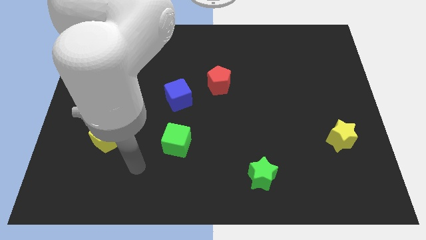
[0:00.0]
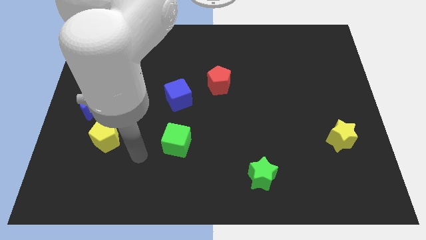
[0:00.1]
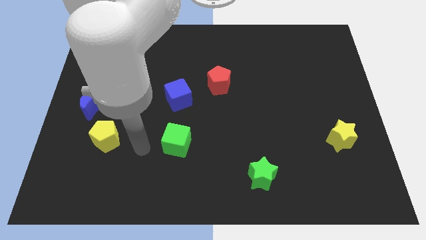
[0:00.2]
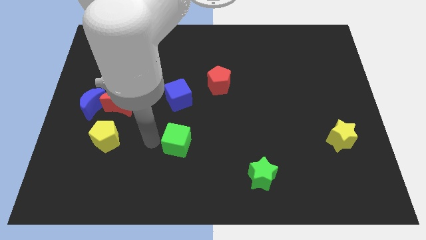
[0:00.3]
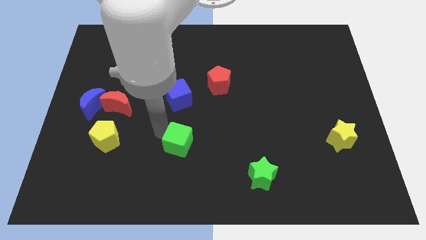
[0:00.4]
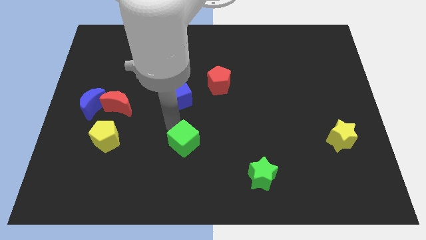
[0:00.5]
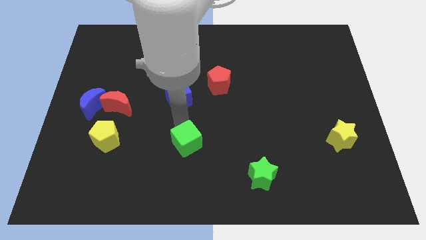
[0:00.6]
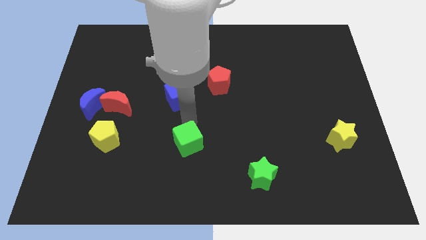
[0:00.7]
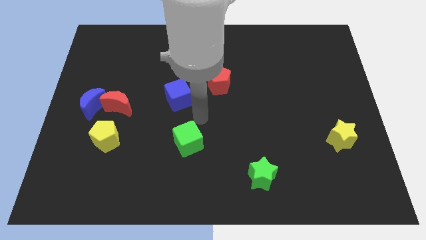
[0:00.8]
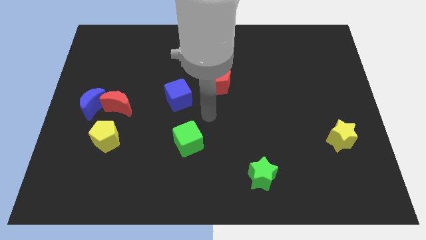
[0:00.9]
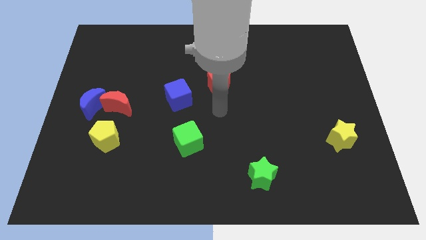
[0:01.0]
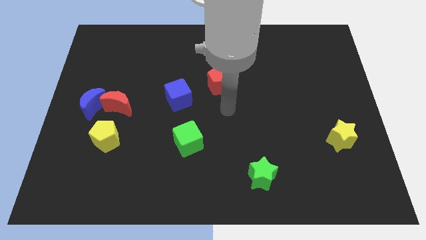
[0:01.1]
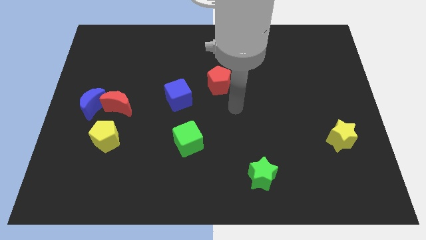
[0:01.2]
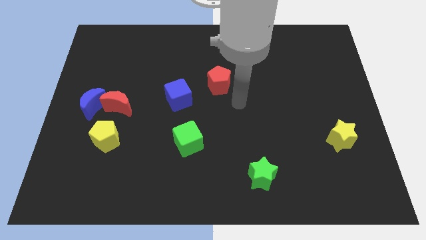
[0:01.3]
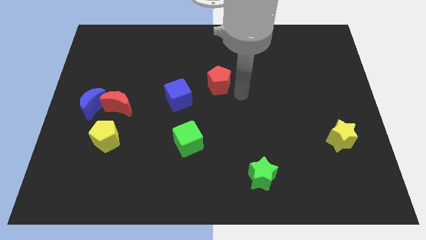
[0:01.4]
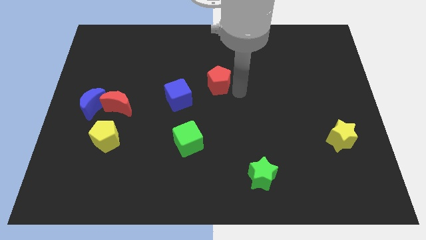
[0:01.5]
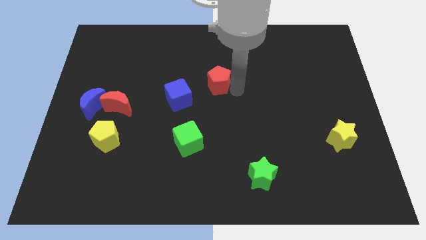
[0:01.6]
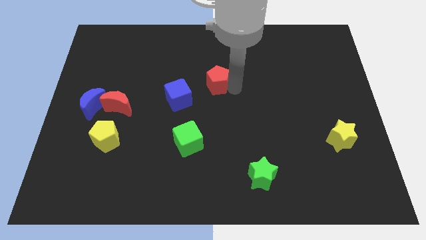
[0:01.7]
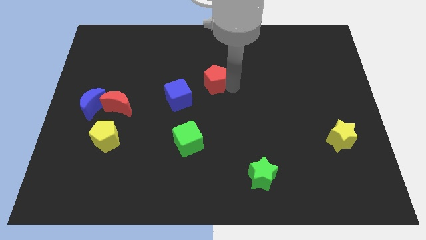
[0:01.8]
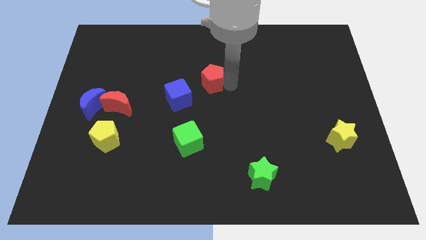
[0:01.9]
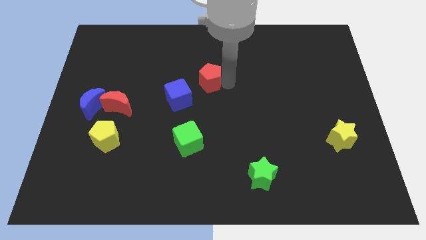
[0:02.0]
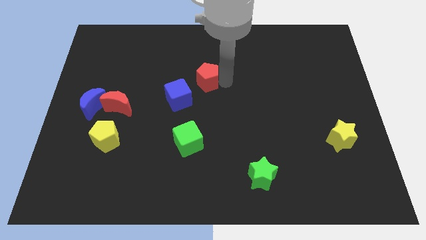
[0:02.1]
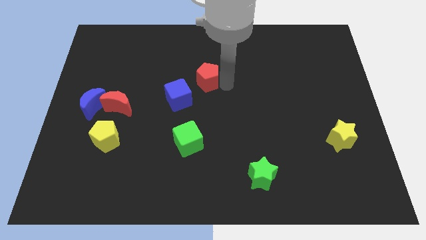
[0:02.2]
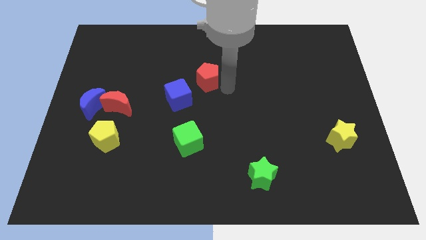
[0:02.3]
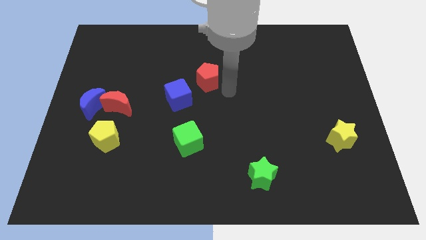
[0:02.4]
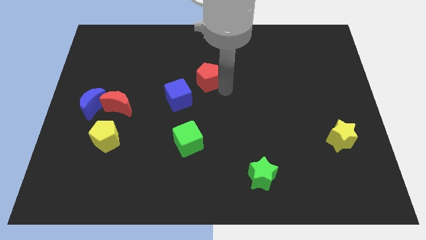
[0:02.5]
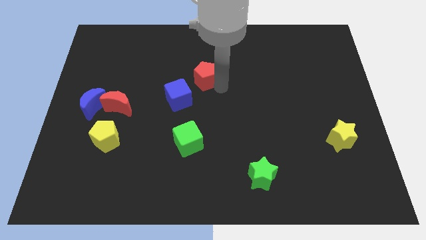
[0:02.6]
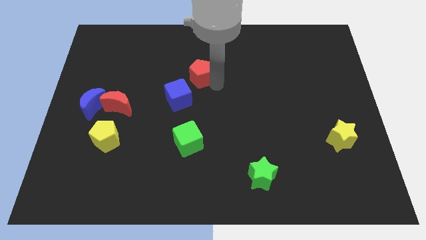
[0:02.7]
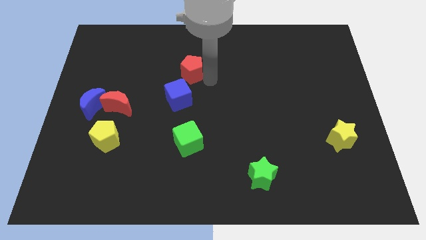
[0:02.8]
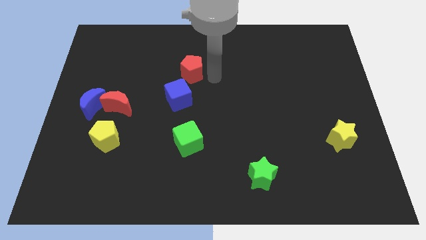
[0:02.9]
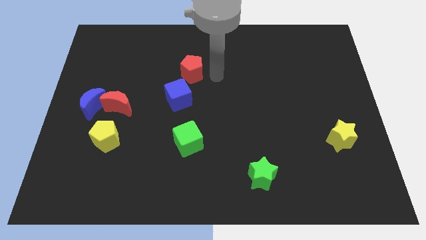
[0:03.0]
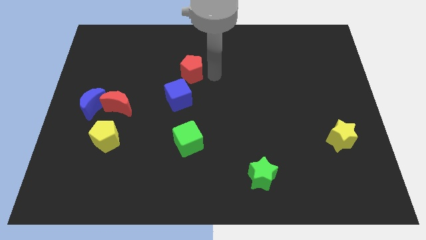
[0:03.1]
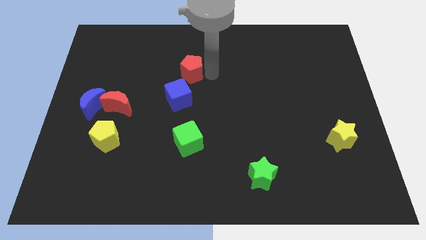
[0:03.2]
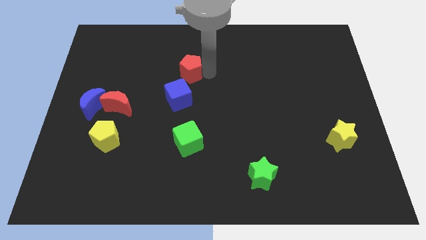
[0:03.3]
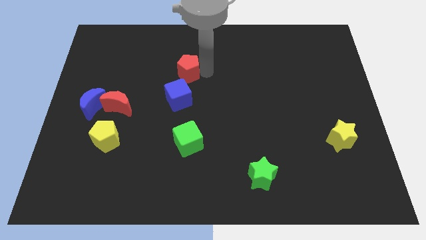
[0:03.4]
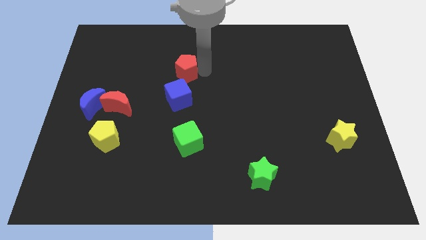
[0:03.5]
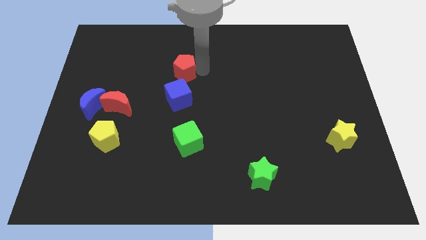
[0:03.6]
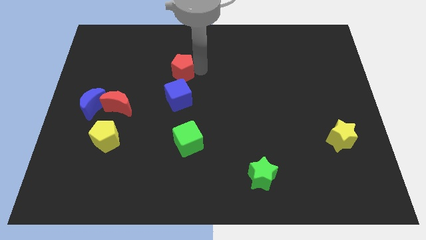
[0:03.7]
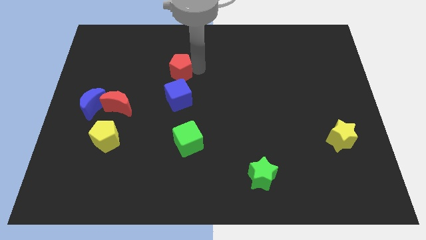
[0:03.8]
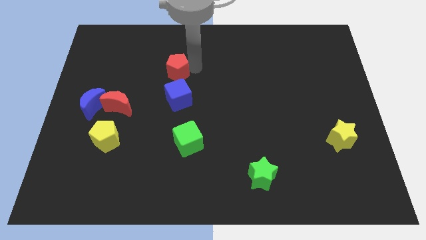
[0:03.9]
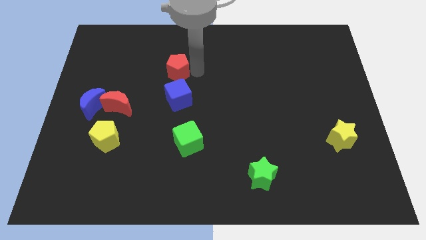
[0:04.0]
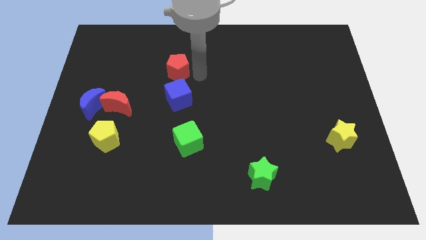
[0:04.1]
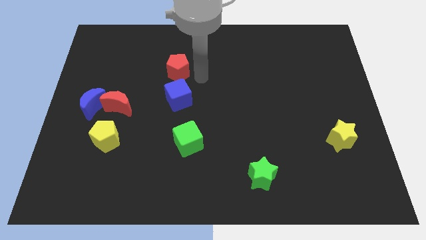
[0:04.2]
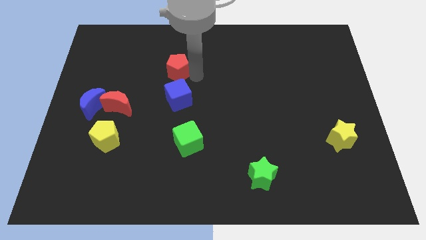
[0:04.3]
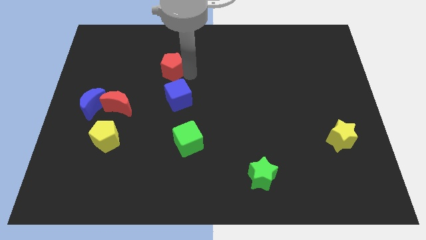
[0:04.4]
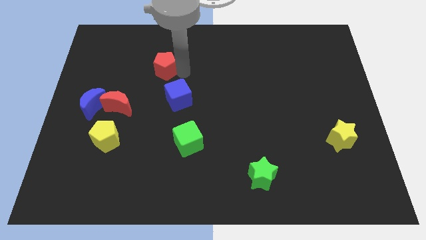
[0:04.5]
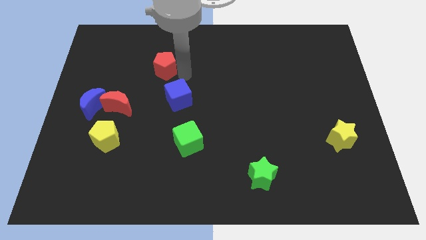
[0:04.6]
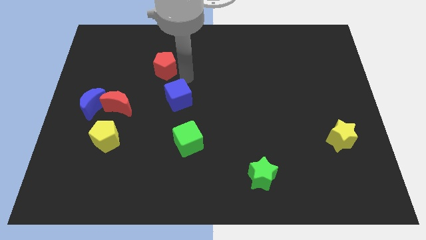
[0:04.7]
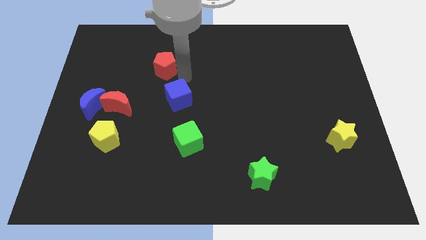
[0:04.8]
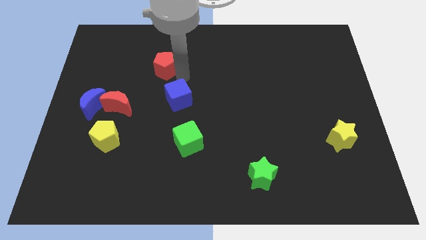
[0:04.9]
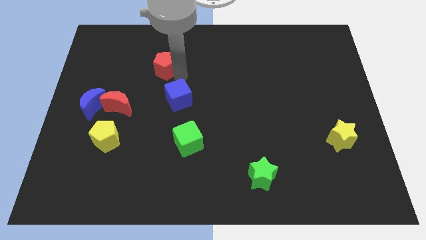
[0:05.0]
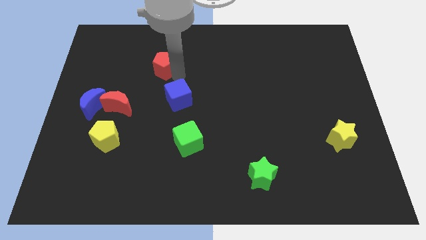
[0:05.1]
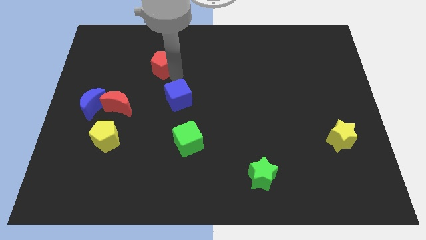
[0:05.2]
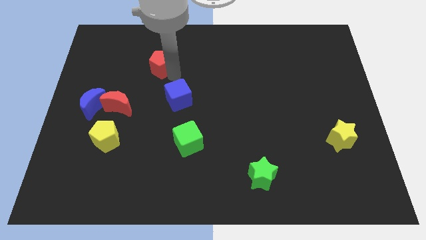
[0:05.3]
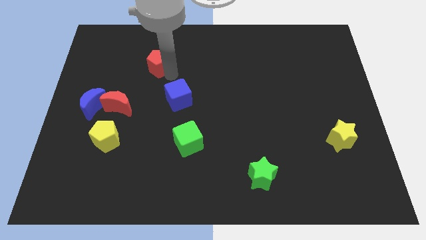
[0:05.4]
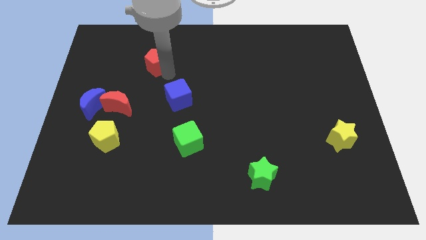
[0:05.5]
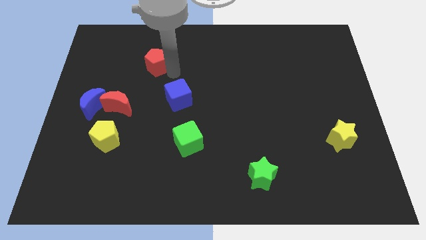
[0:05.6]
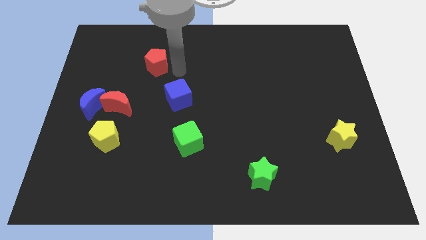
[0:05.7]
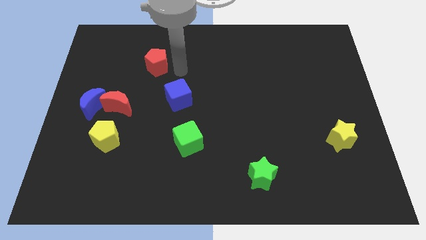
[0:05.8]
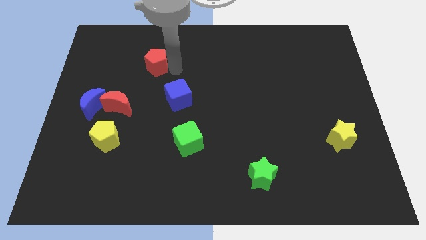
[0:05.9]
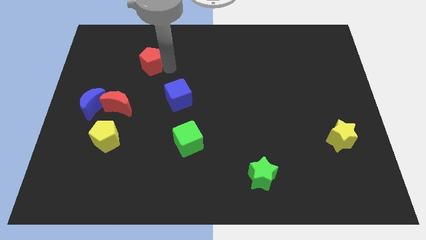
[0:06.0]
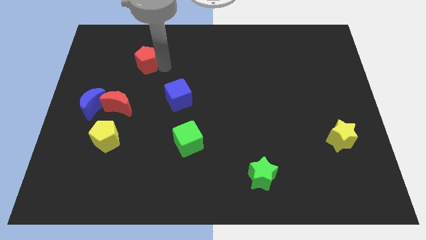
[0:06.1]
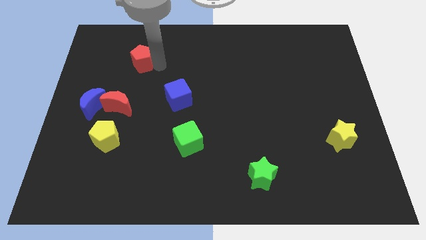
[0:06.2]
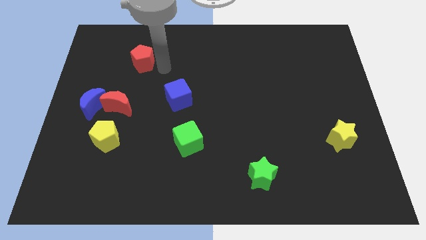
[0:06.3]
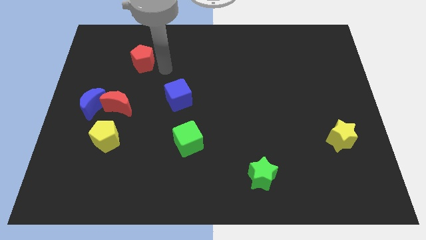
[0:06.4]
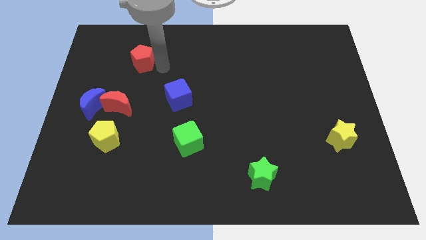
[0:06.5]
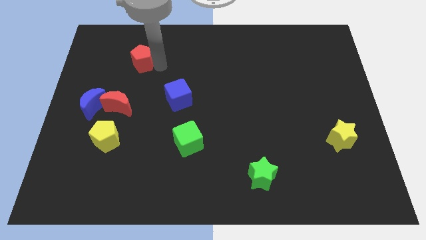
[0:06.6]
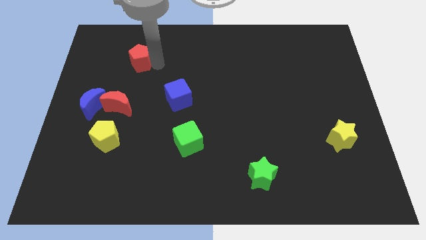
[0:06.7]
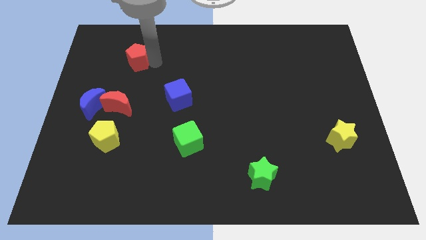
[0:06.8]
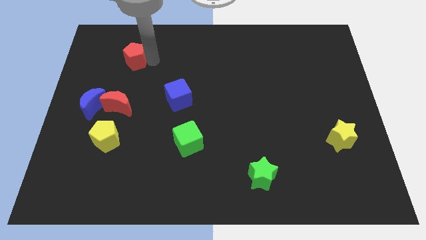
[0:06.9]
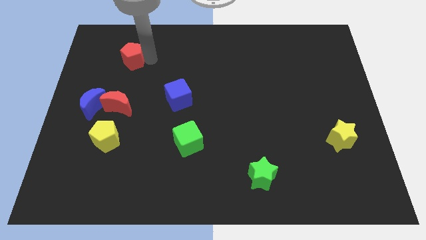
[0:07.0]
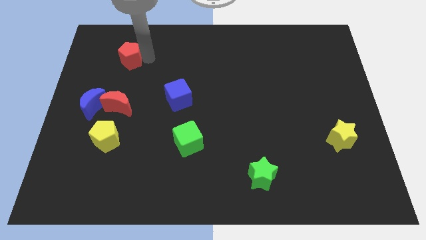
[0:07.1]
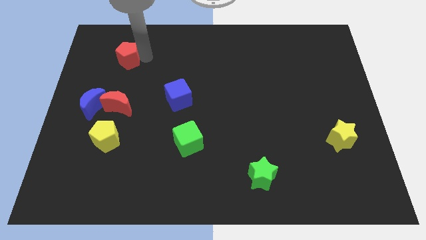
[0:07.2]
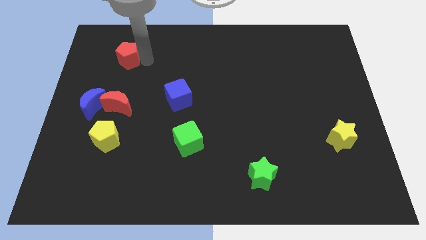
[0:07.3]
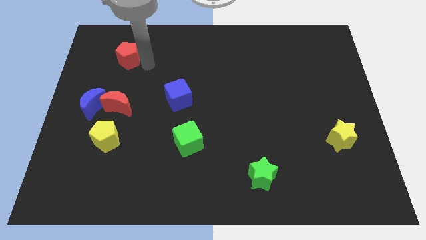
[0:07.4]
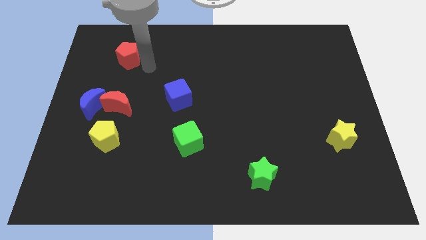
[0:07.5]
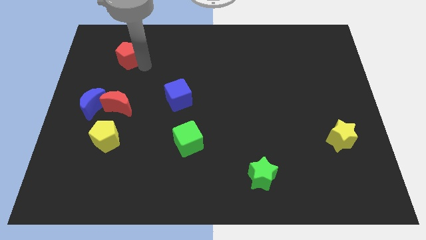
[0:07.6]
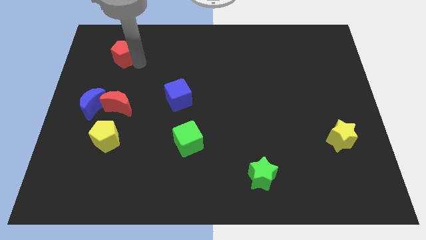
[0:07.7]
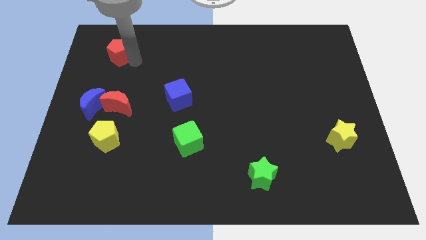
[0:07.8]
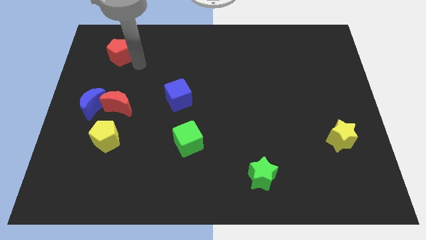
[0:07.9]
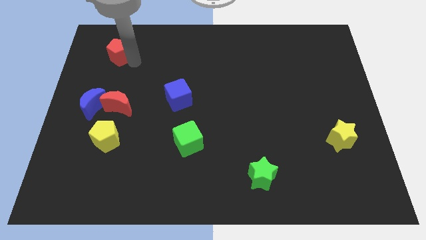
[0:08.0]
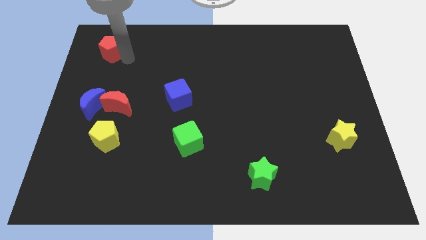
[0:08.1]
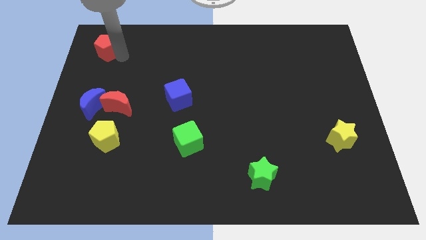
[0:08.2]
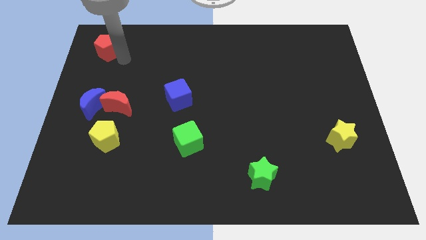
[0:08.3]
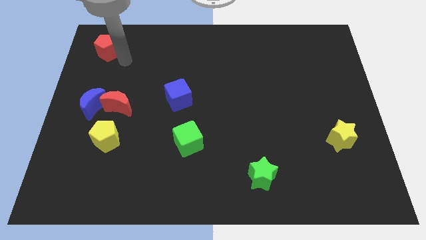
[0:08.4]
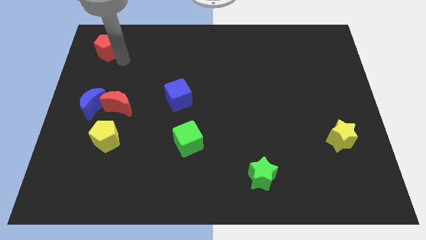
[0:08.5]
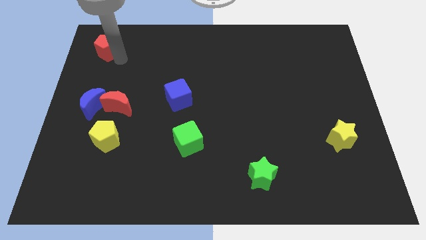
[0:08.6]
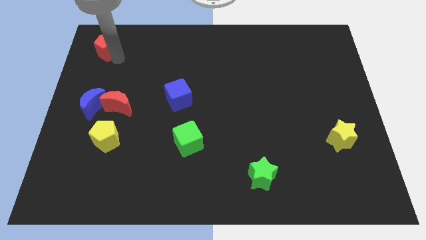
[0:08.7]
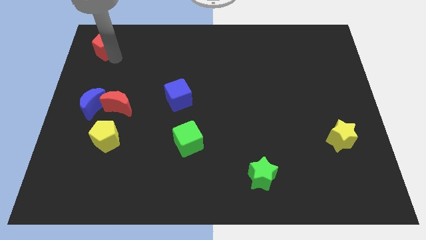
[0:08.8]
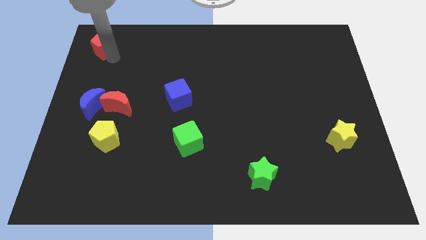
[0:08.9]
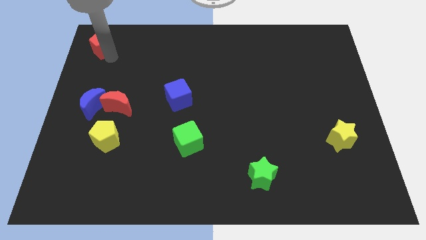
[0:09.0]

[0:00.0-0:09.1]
put the red pentagon to the upper left corner
